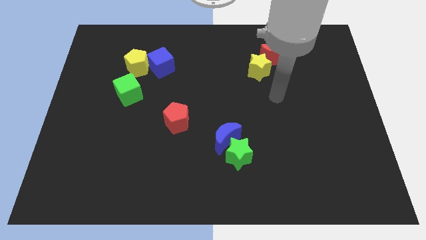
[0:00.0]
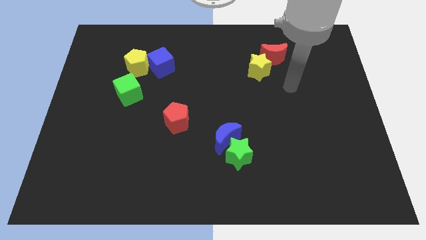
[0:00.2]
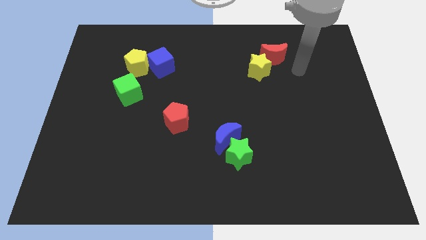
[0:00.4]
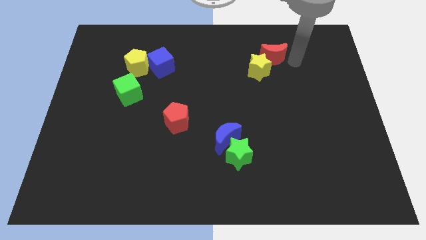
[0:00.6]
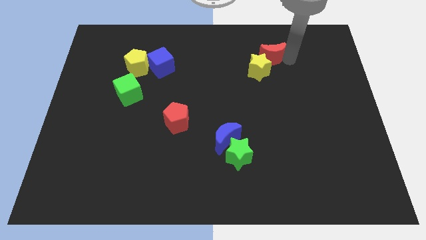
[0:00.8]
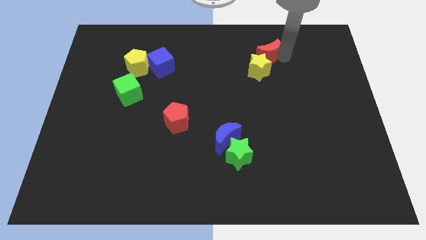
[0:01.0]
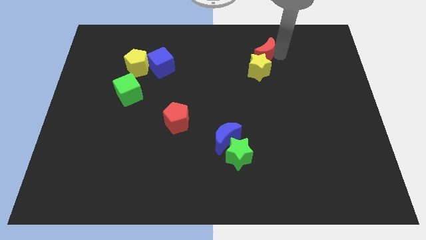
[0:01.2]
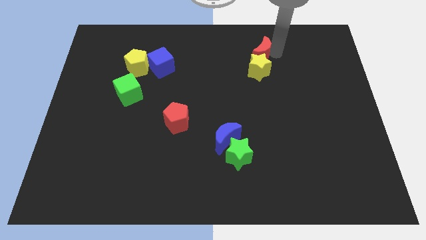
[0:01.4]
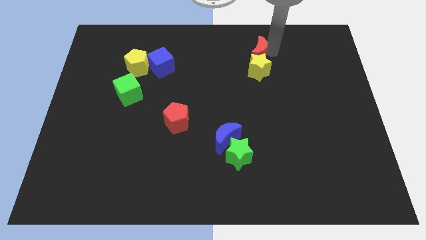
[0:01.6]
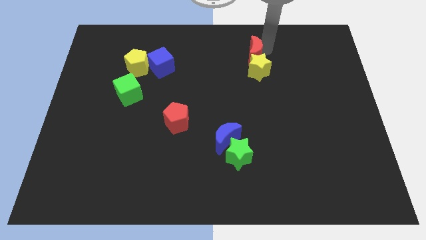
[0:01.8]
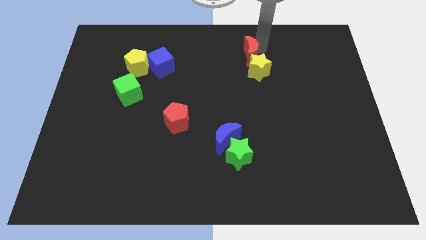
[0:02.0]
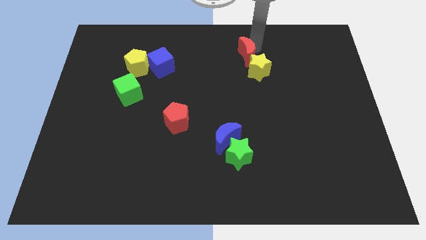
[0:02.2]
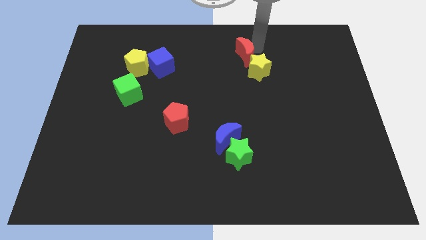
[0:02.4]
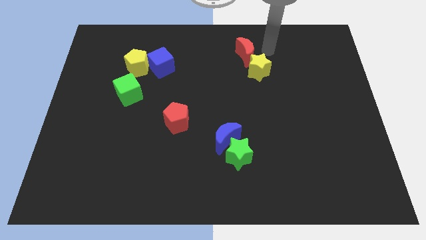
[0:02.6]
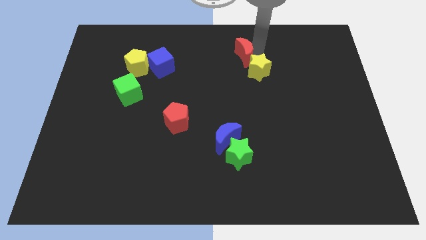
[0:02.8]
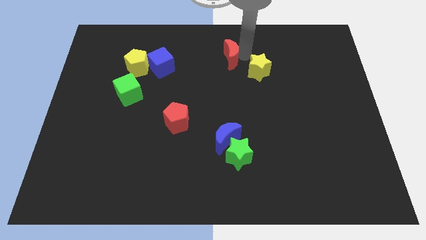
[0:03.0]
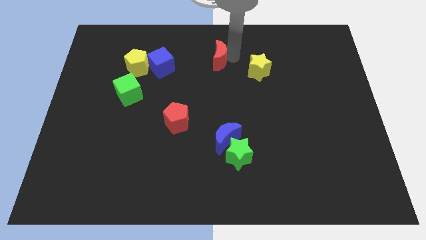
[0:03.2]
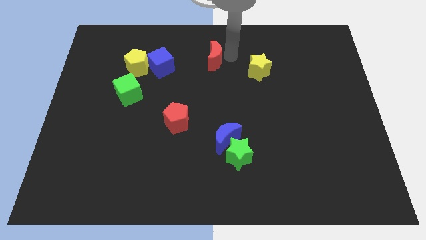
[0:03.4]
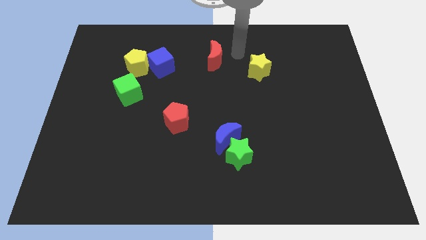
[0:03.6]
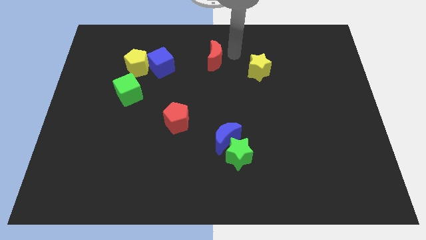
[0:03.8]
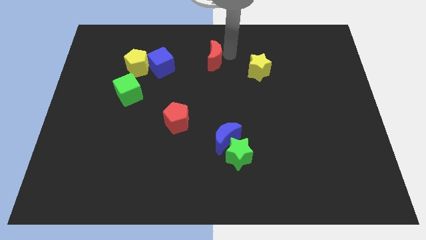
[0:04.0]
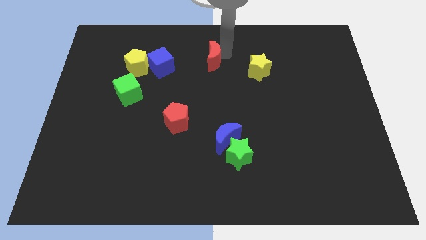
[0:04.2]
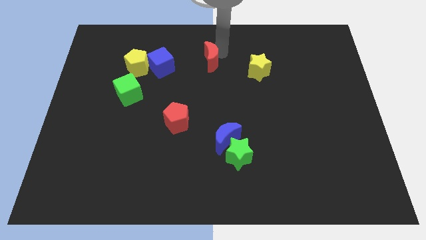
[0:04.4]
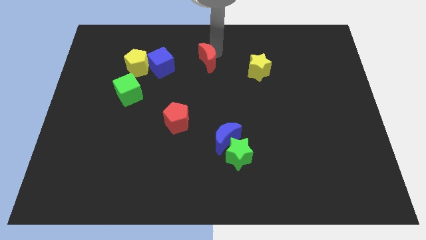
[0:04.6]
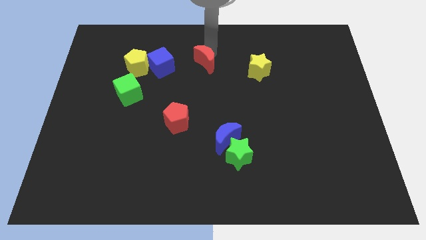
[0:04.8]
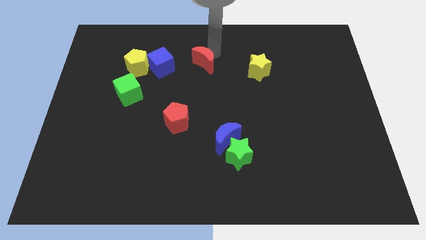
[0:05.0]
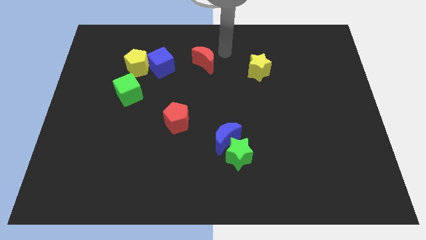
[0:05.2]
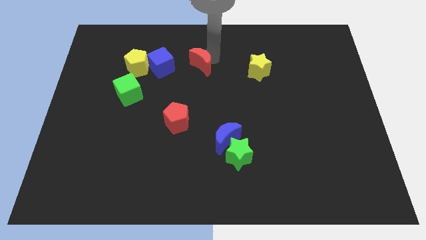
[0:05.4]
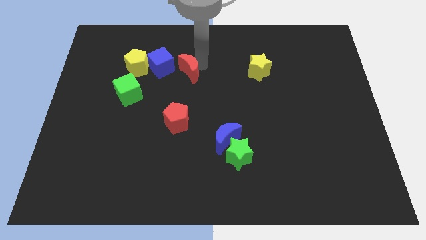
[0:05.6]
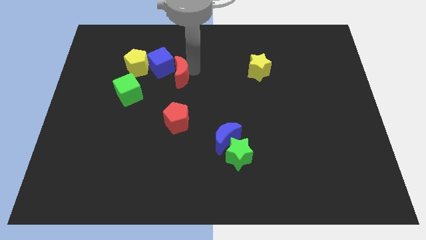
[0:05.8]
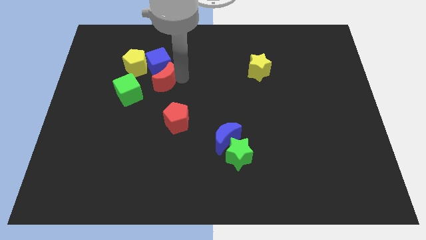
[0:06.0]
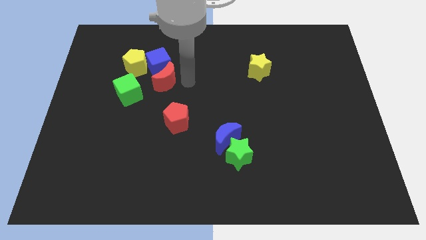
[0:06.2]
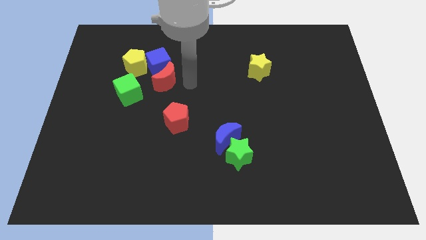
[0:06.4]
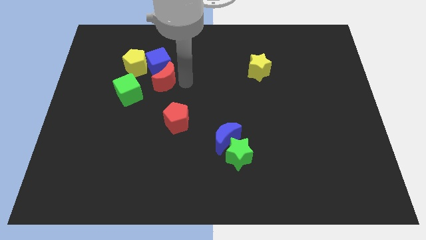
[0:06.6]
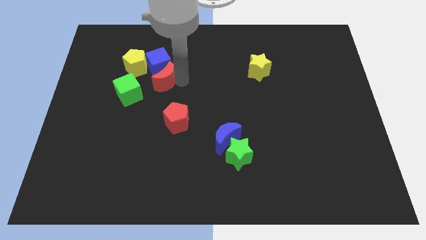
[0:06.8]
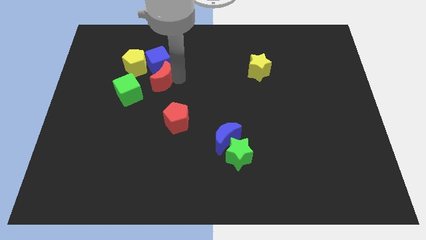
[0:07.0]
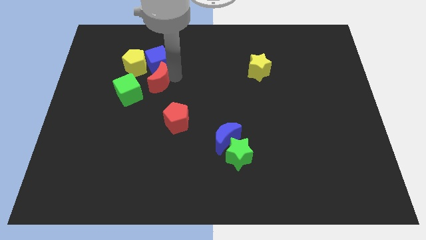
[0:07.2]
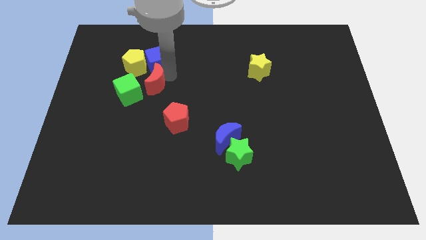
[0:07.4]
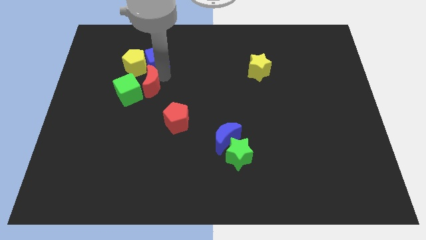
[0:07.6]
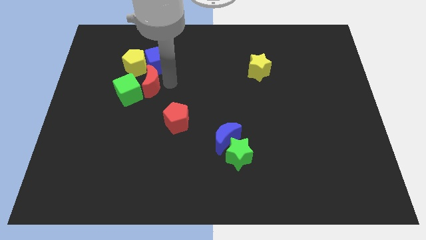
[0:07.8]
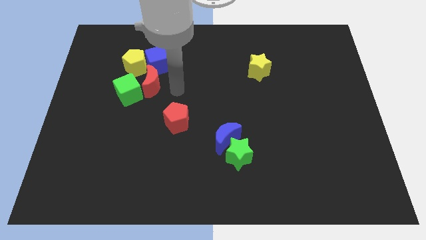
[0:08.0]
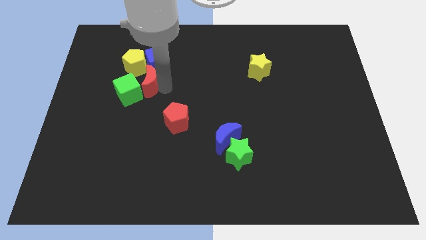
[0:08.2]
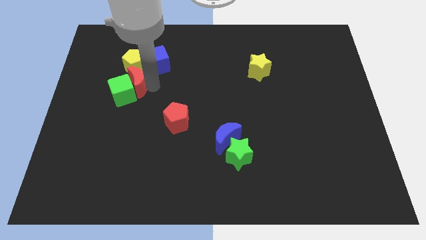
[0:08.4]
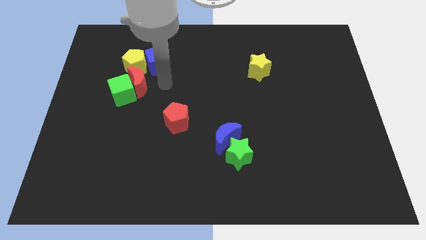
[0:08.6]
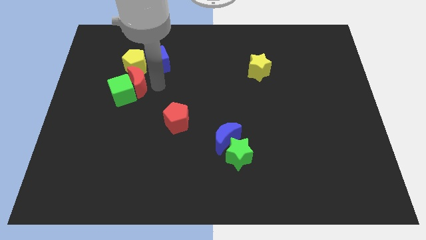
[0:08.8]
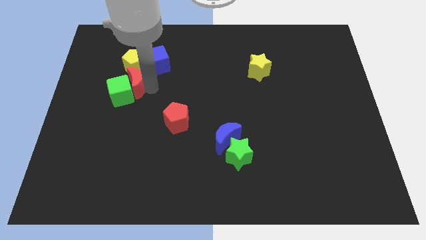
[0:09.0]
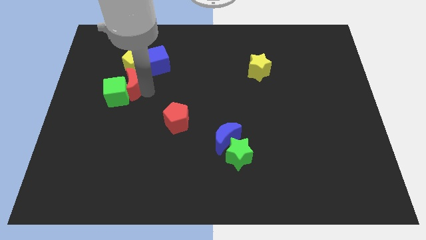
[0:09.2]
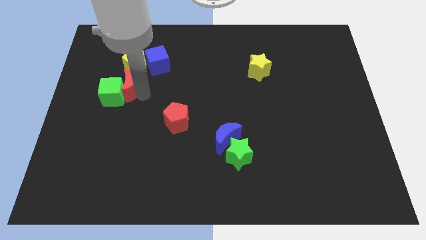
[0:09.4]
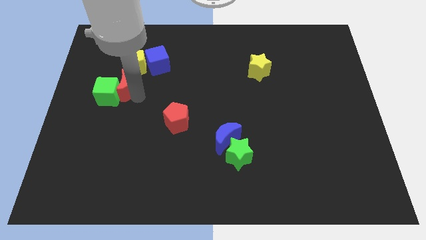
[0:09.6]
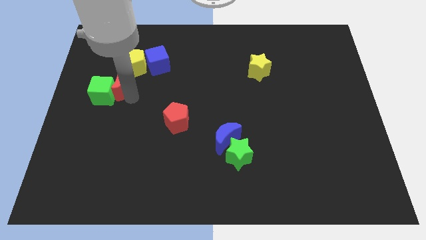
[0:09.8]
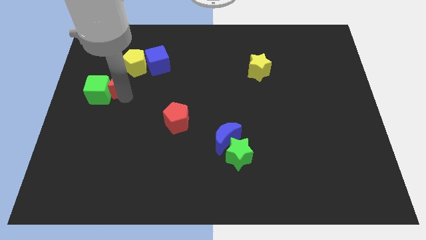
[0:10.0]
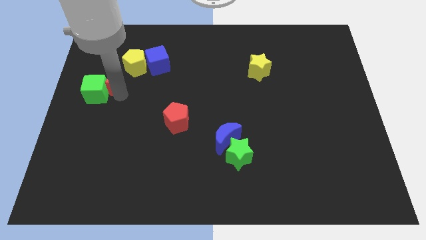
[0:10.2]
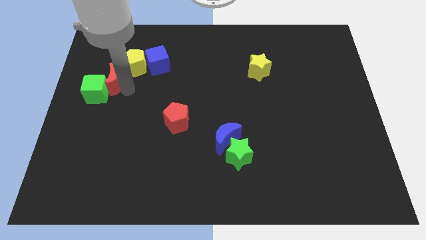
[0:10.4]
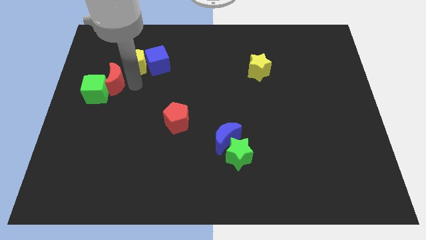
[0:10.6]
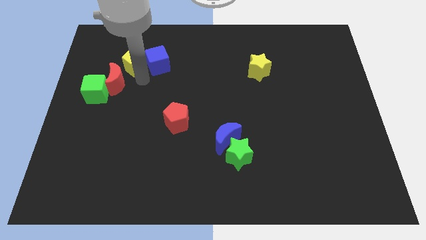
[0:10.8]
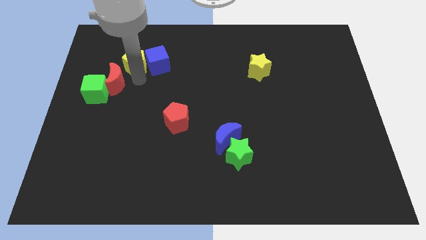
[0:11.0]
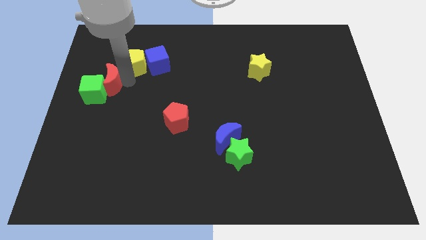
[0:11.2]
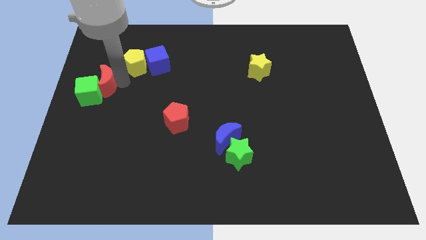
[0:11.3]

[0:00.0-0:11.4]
slide the red moon to the left side of the board

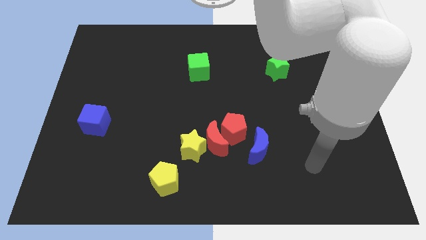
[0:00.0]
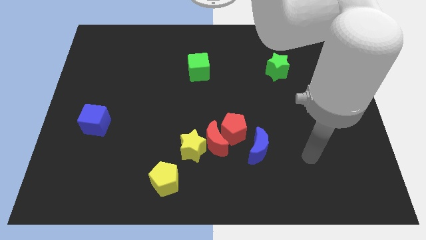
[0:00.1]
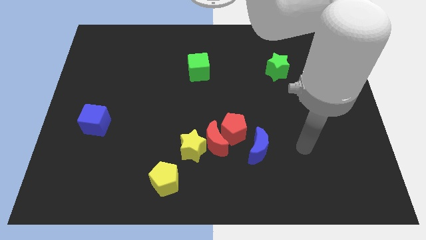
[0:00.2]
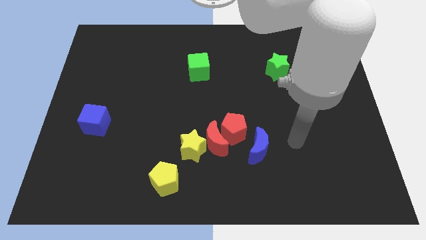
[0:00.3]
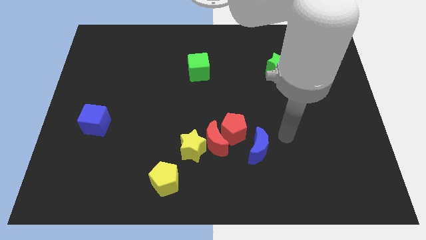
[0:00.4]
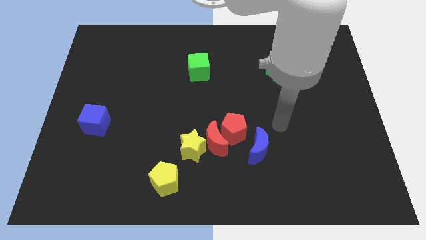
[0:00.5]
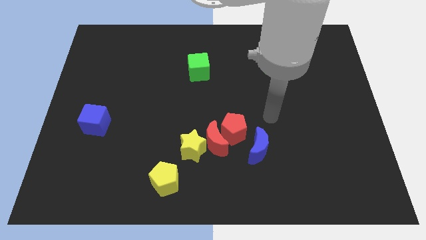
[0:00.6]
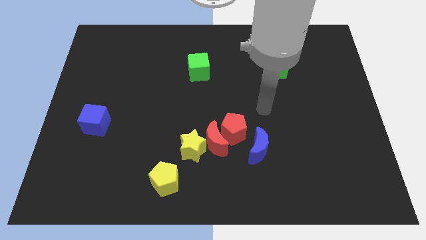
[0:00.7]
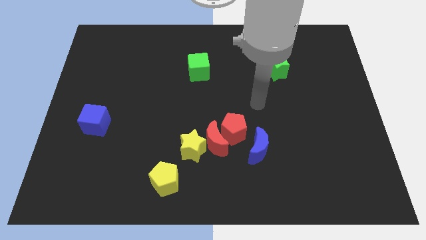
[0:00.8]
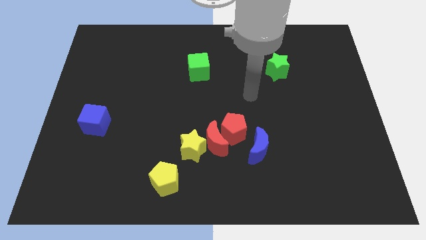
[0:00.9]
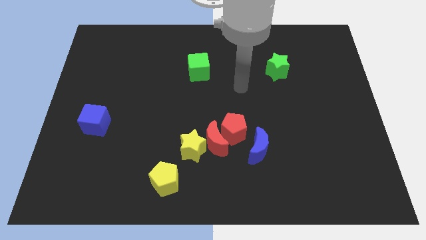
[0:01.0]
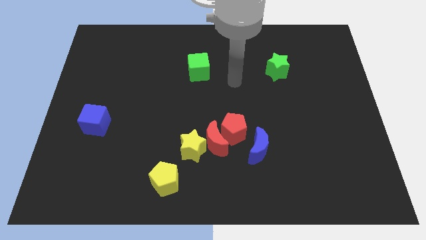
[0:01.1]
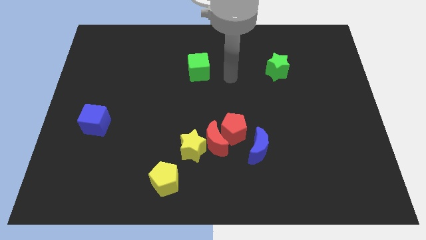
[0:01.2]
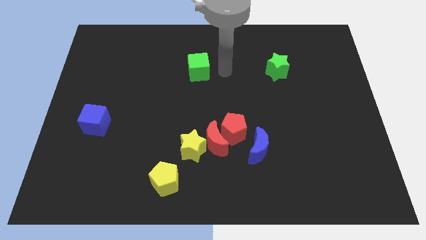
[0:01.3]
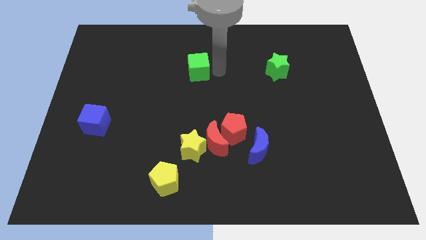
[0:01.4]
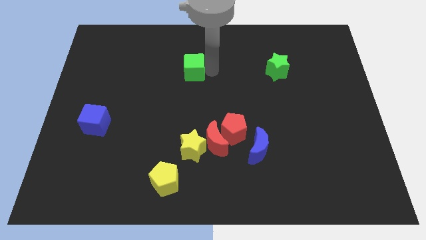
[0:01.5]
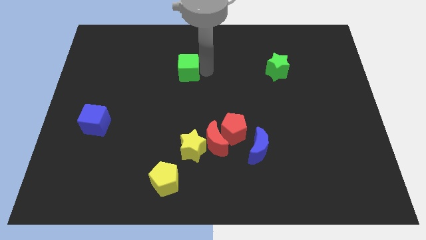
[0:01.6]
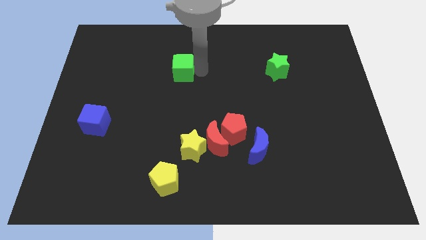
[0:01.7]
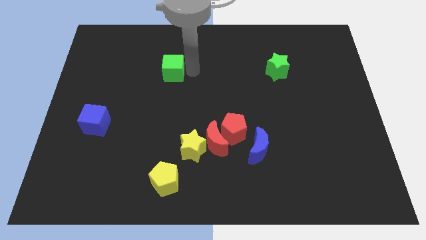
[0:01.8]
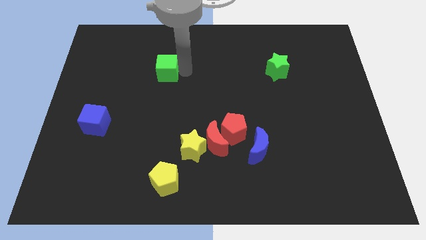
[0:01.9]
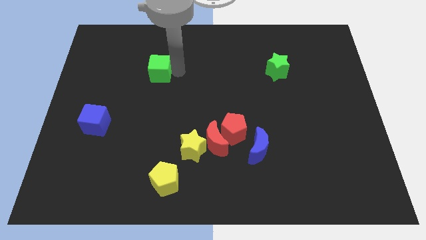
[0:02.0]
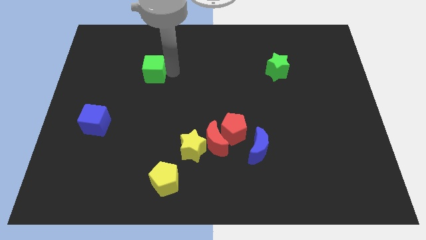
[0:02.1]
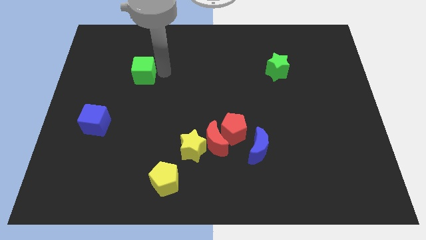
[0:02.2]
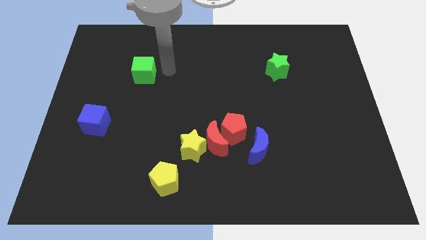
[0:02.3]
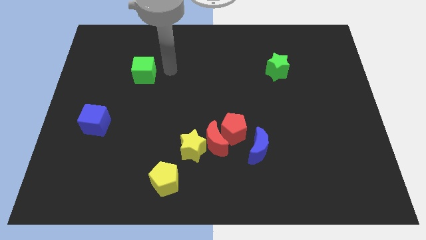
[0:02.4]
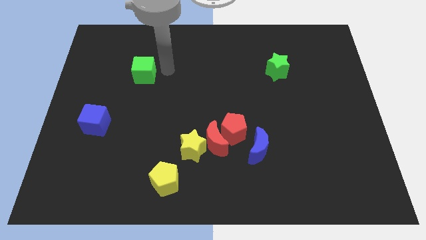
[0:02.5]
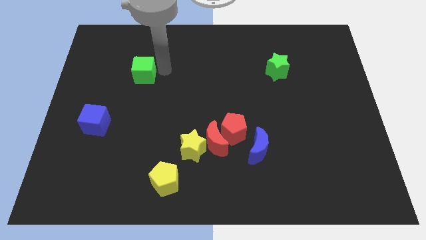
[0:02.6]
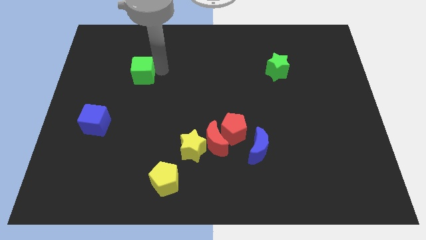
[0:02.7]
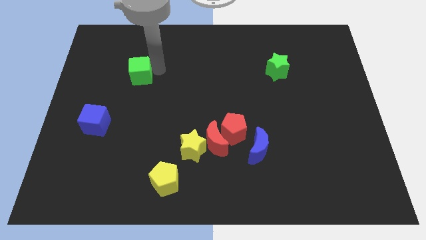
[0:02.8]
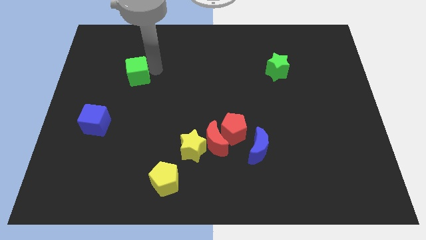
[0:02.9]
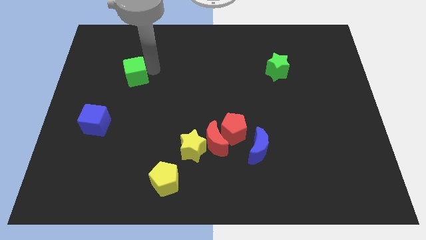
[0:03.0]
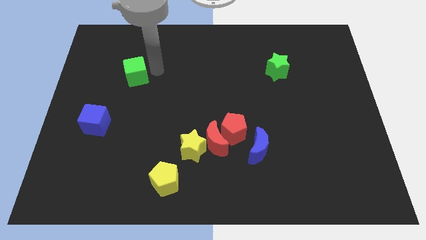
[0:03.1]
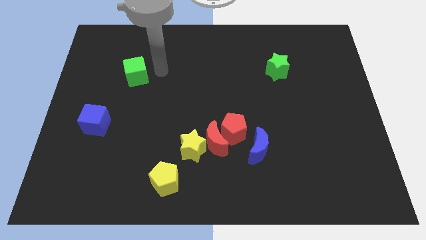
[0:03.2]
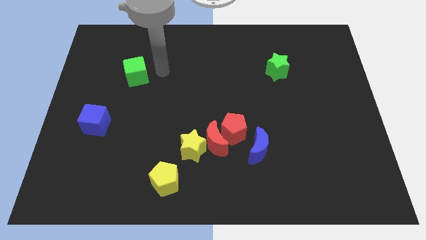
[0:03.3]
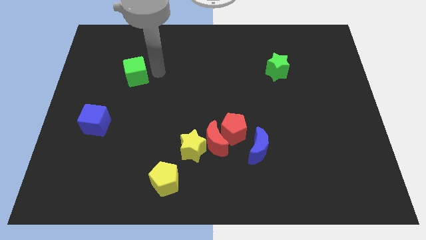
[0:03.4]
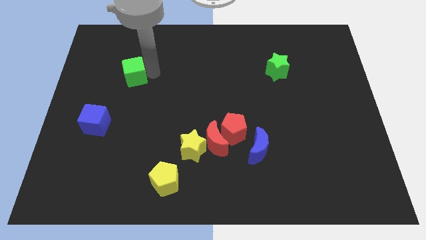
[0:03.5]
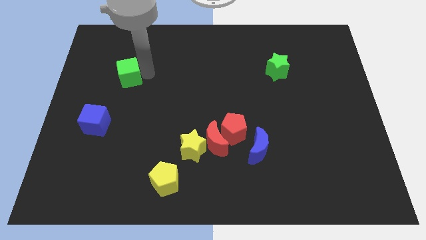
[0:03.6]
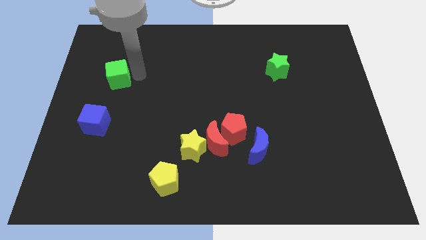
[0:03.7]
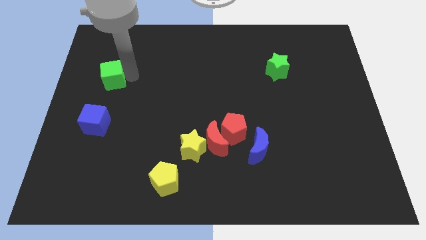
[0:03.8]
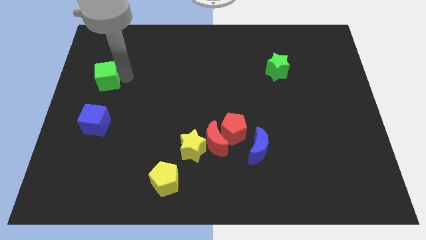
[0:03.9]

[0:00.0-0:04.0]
slide the green cube to the left side of the board
